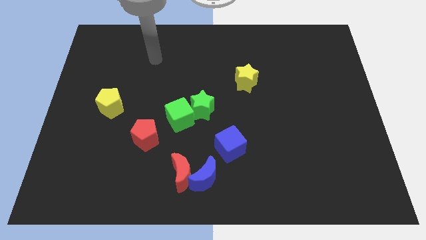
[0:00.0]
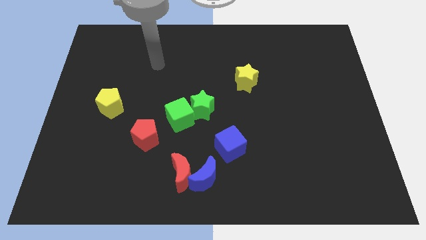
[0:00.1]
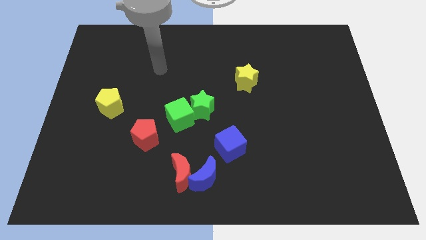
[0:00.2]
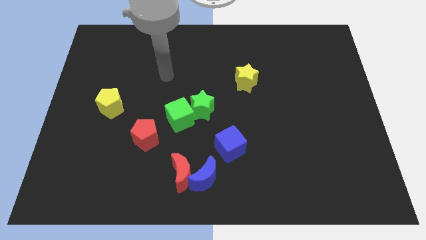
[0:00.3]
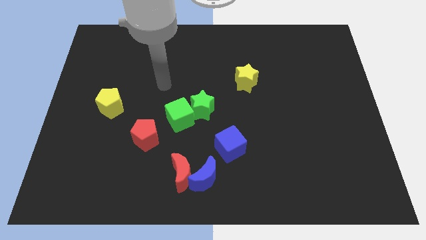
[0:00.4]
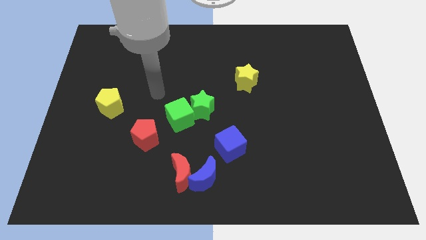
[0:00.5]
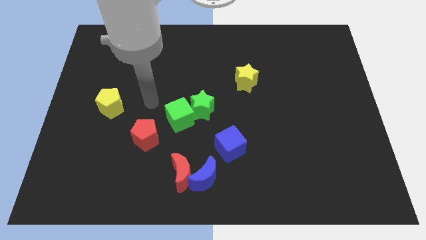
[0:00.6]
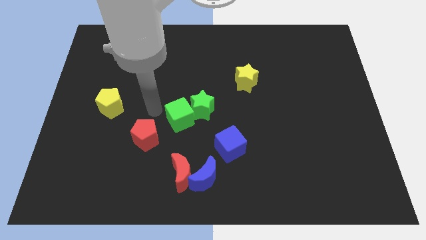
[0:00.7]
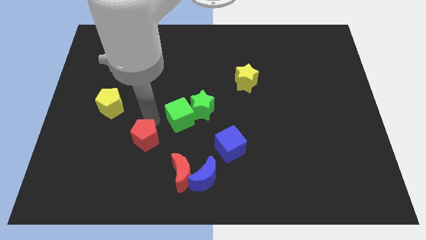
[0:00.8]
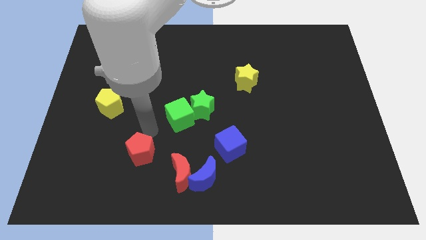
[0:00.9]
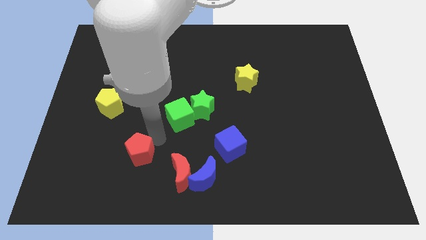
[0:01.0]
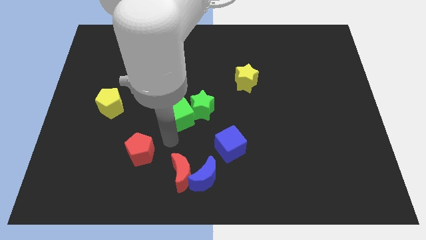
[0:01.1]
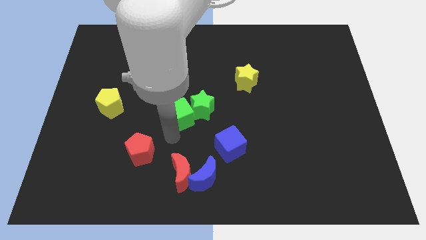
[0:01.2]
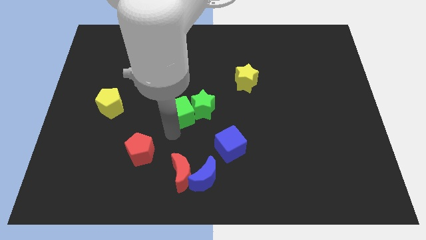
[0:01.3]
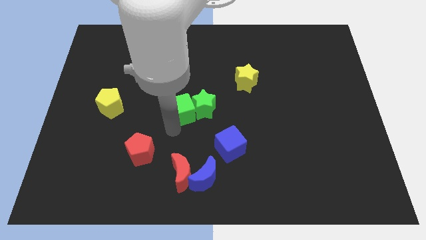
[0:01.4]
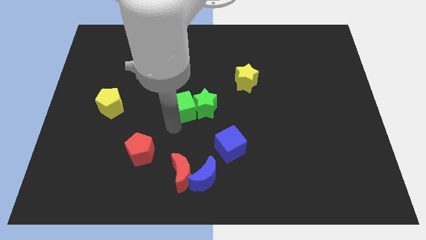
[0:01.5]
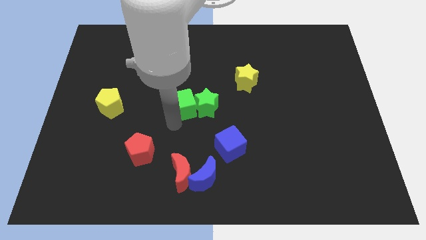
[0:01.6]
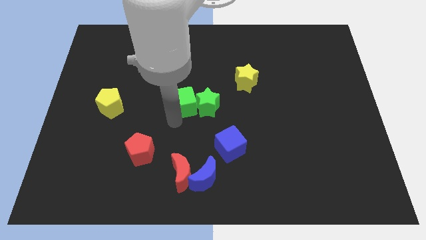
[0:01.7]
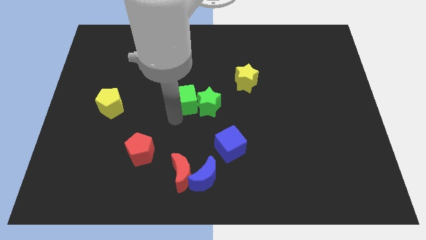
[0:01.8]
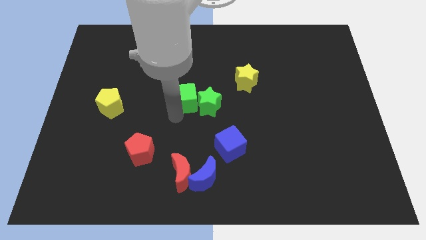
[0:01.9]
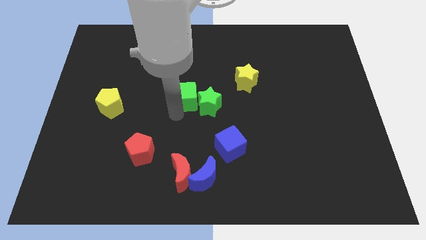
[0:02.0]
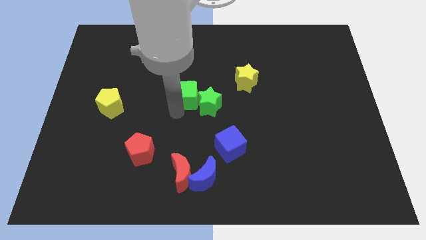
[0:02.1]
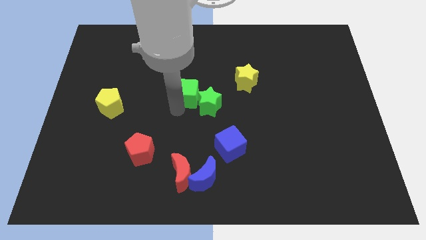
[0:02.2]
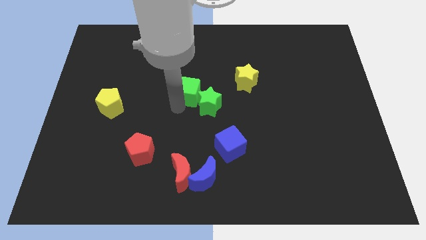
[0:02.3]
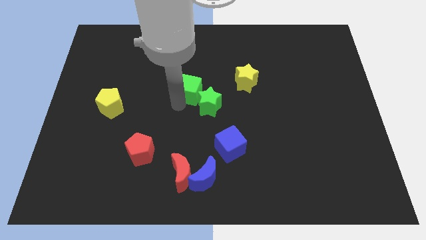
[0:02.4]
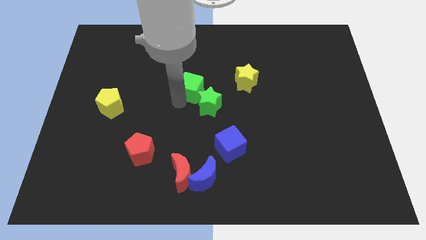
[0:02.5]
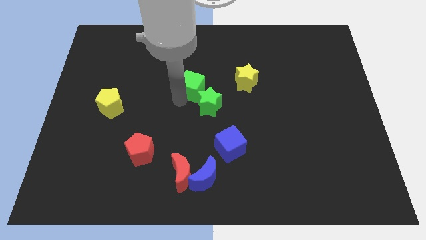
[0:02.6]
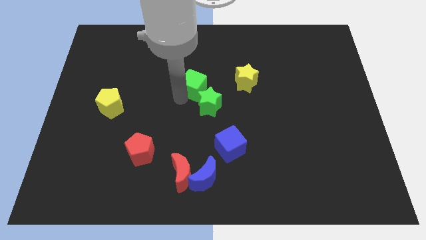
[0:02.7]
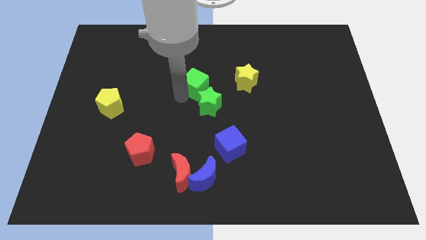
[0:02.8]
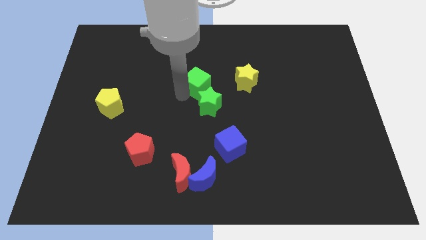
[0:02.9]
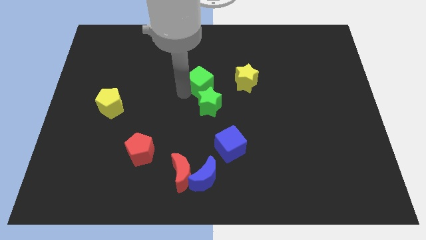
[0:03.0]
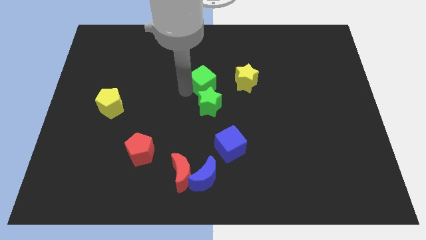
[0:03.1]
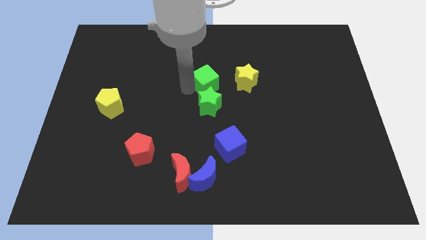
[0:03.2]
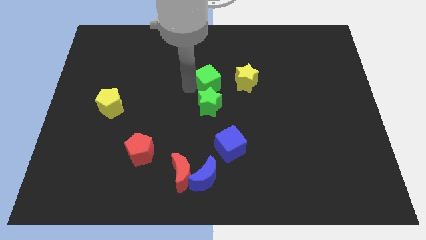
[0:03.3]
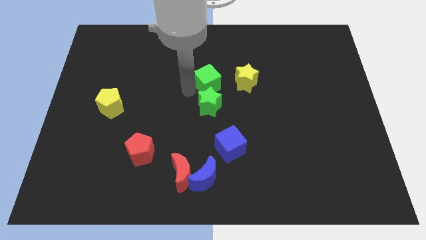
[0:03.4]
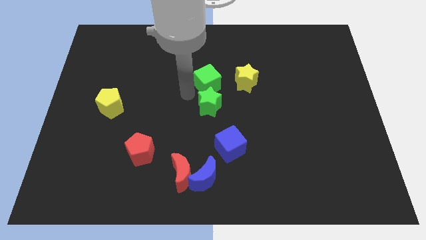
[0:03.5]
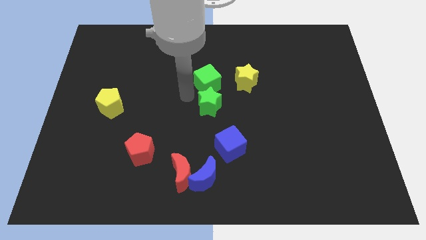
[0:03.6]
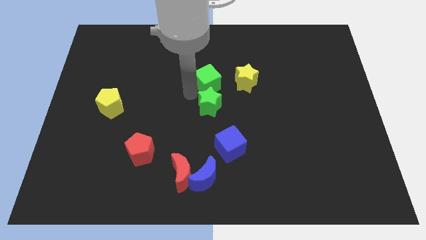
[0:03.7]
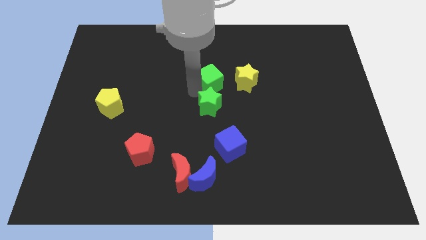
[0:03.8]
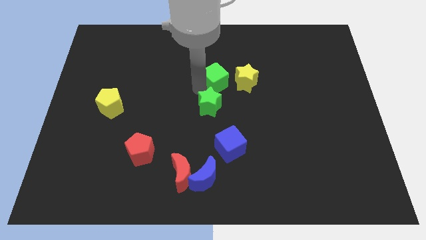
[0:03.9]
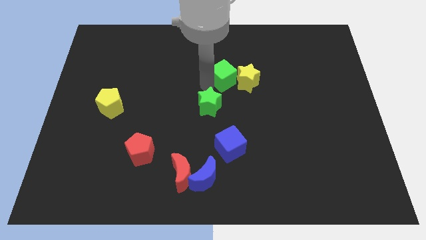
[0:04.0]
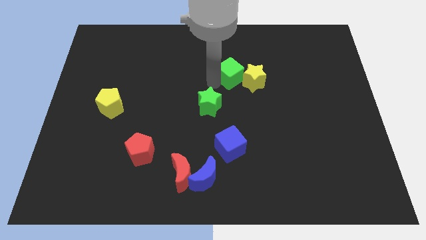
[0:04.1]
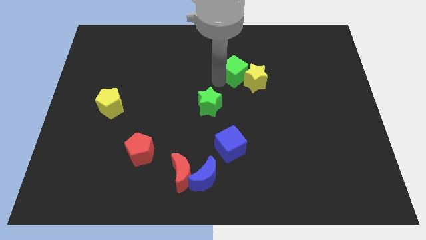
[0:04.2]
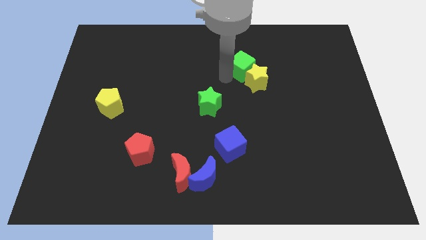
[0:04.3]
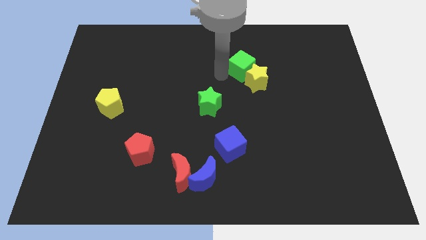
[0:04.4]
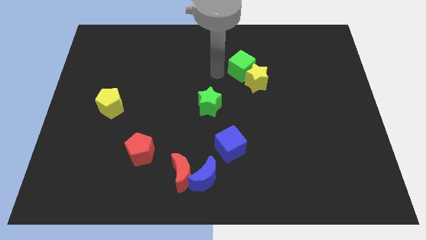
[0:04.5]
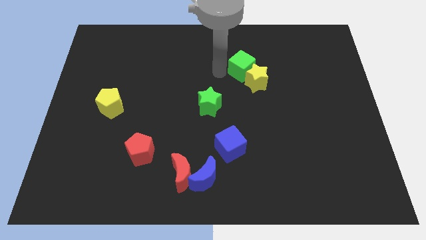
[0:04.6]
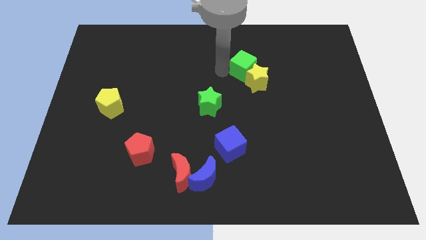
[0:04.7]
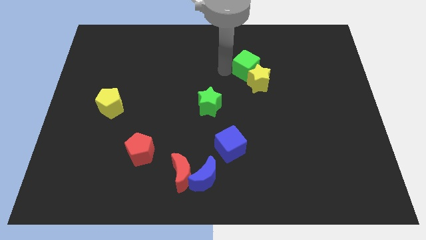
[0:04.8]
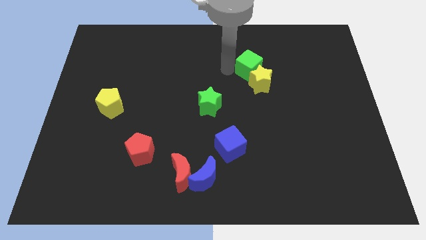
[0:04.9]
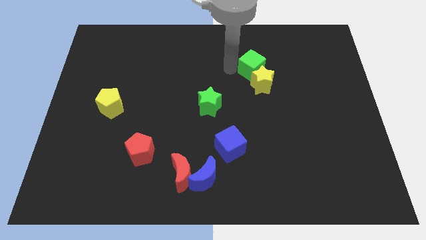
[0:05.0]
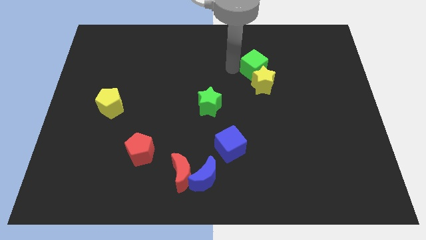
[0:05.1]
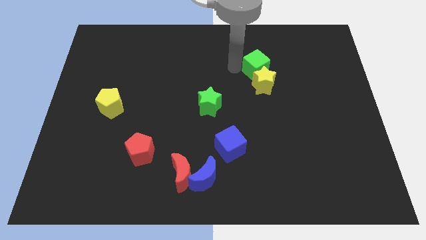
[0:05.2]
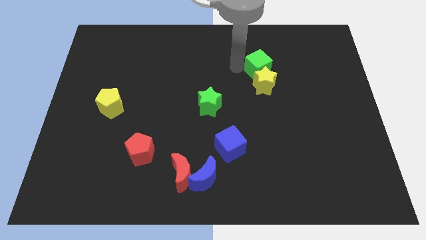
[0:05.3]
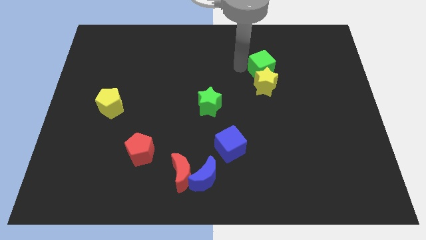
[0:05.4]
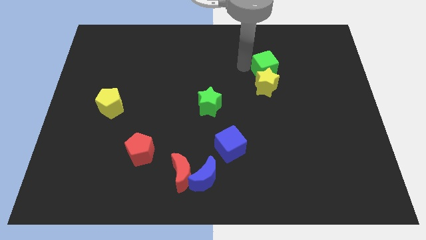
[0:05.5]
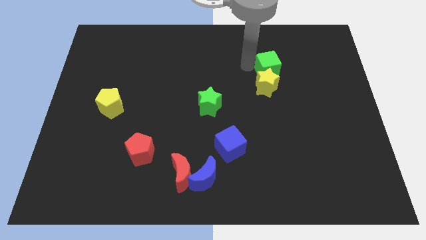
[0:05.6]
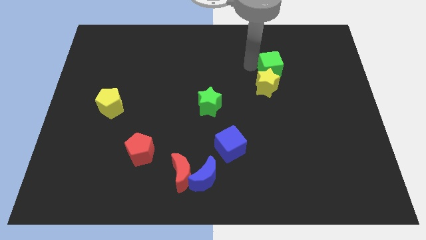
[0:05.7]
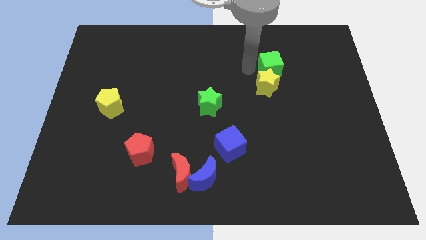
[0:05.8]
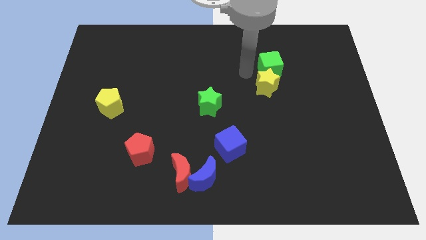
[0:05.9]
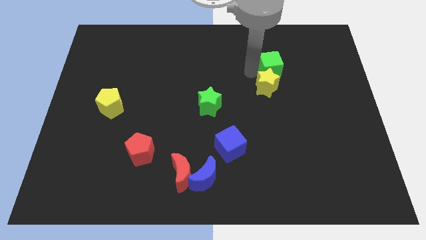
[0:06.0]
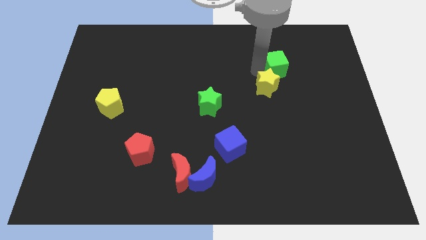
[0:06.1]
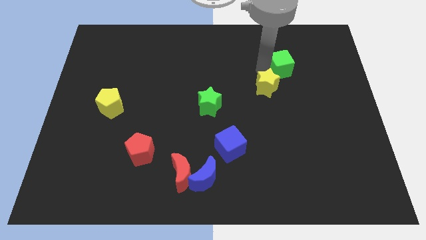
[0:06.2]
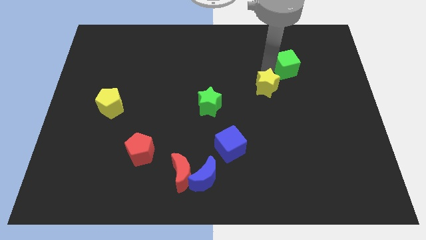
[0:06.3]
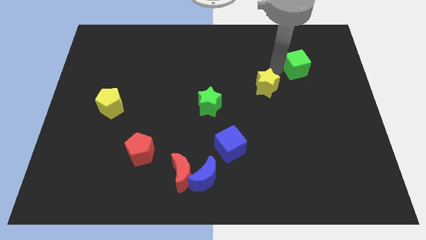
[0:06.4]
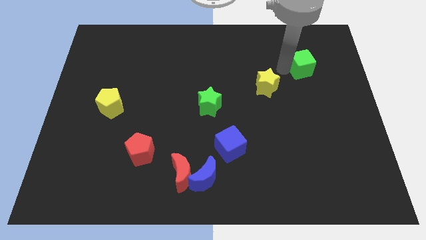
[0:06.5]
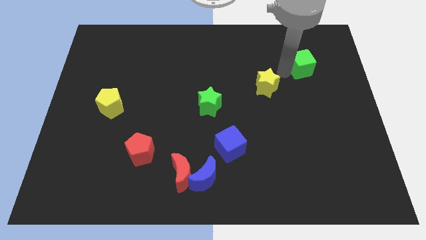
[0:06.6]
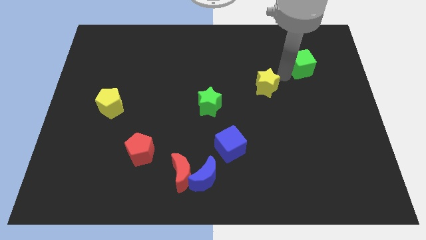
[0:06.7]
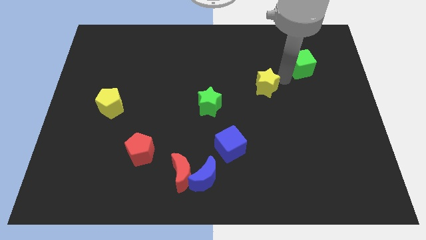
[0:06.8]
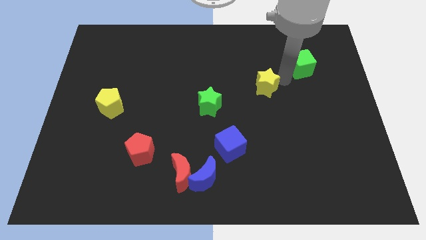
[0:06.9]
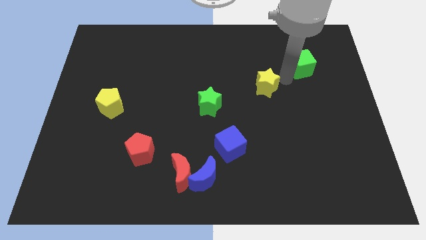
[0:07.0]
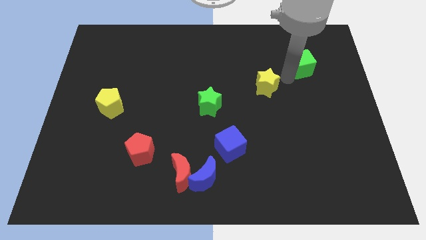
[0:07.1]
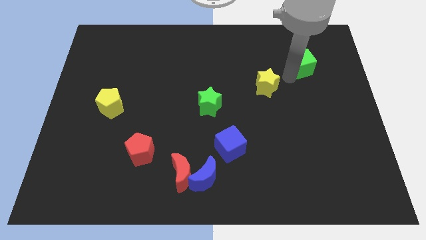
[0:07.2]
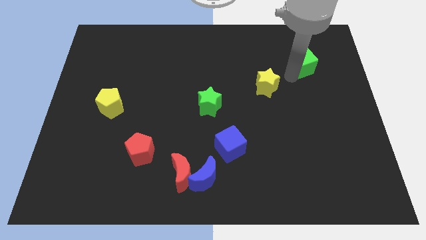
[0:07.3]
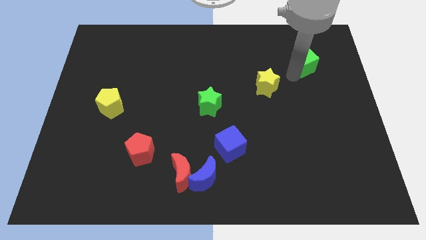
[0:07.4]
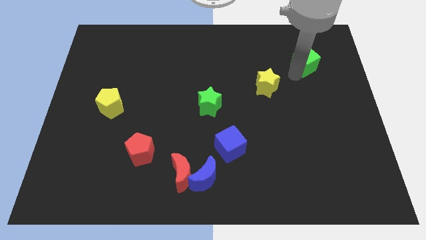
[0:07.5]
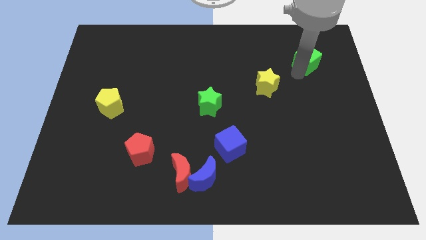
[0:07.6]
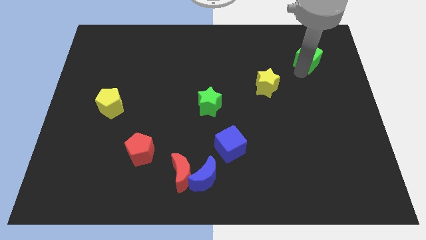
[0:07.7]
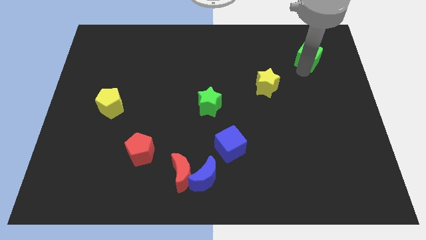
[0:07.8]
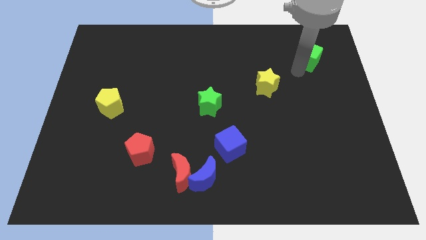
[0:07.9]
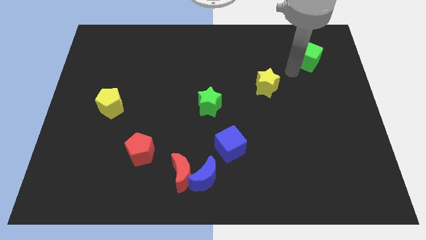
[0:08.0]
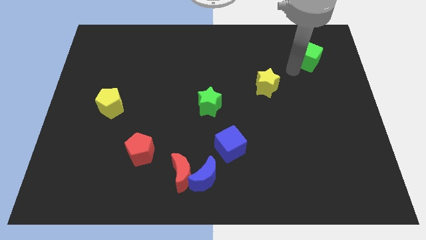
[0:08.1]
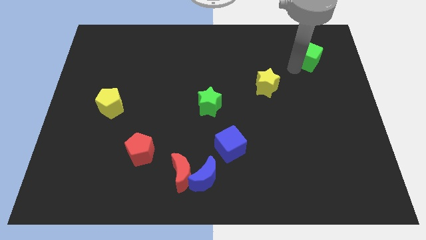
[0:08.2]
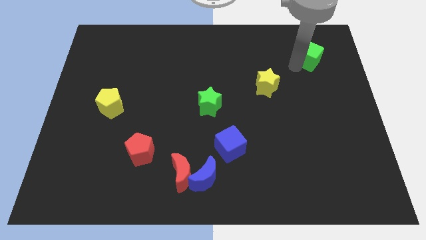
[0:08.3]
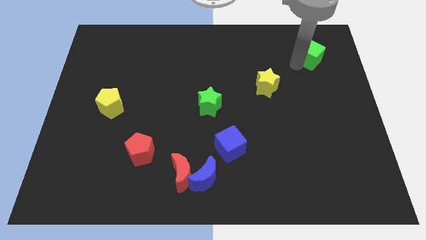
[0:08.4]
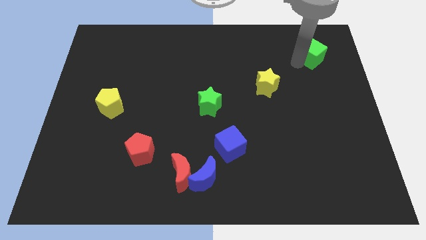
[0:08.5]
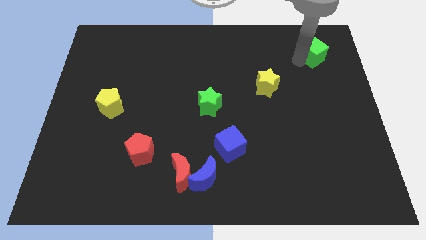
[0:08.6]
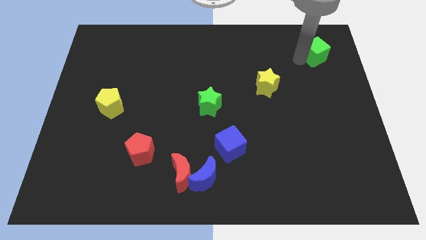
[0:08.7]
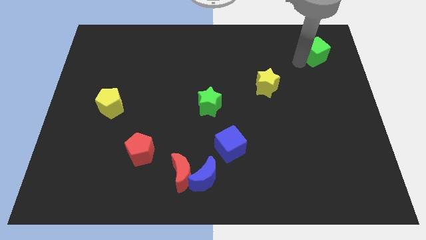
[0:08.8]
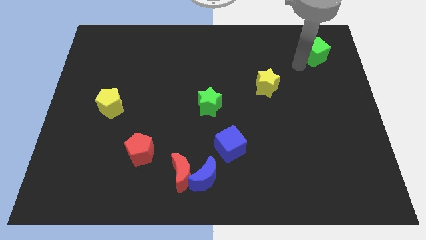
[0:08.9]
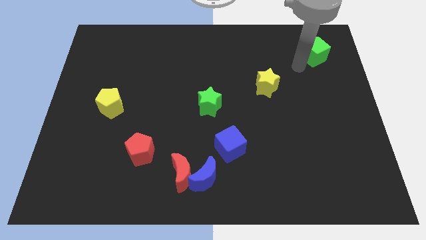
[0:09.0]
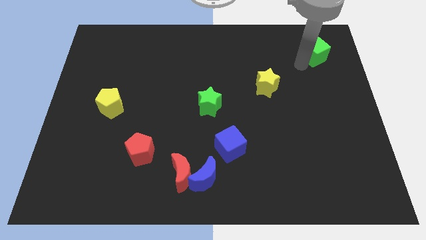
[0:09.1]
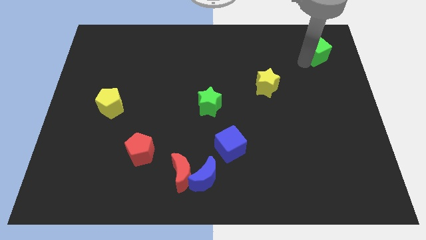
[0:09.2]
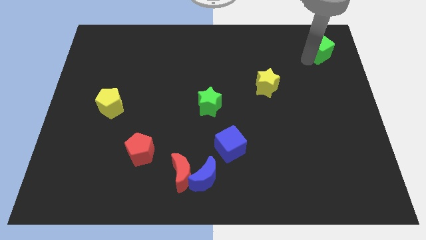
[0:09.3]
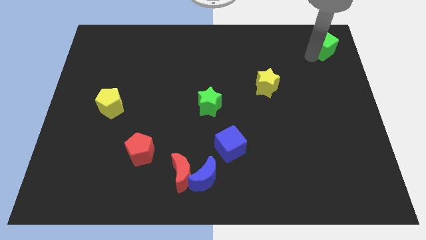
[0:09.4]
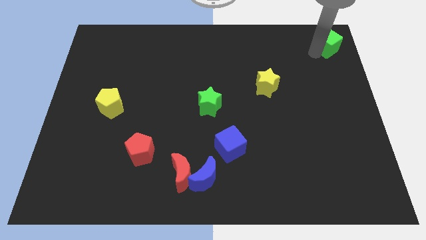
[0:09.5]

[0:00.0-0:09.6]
push the green cube to the top right
